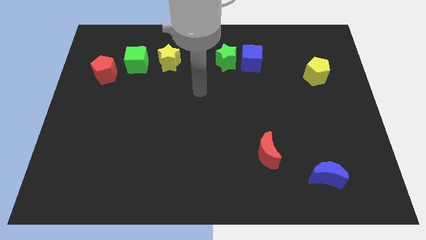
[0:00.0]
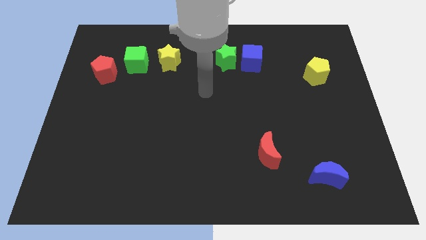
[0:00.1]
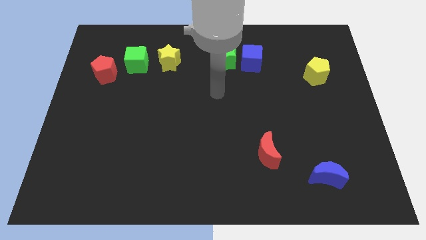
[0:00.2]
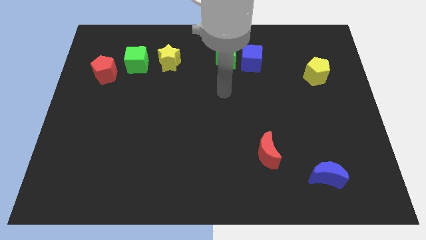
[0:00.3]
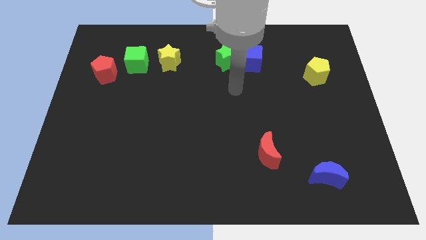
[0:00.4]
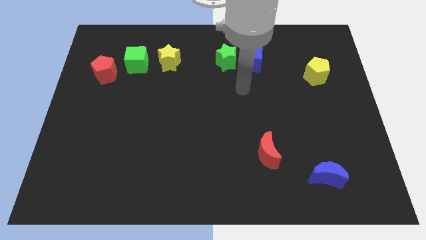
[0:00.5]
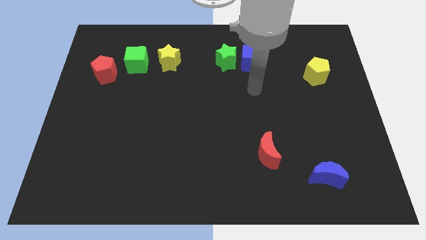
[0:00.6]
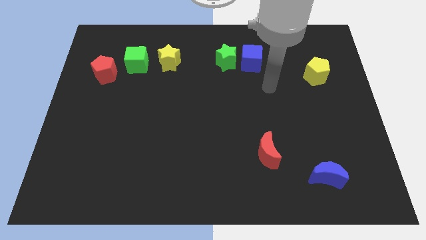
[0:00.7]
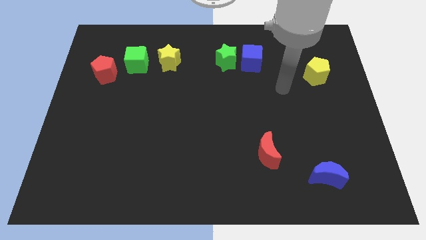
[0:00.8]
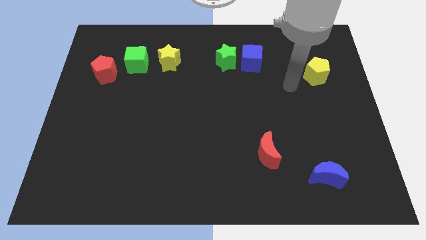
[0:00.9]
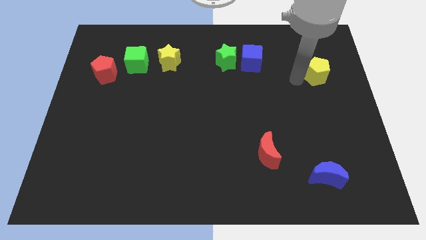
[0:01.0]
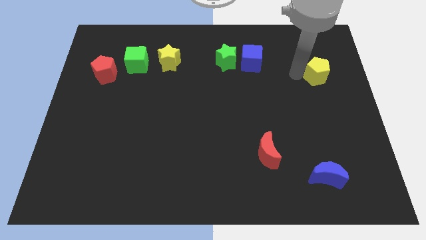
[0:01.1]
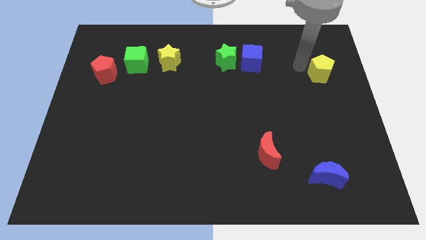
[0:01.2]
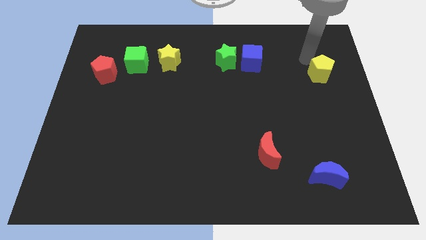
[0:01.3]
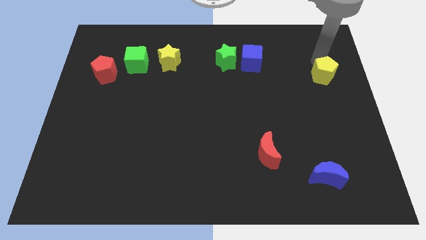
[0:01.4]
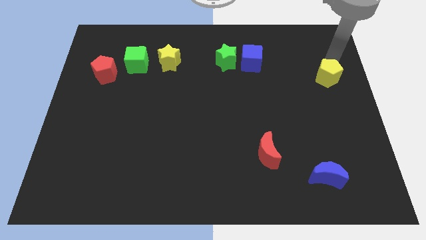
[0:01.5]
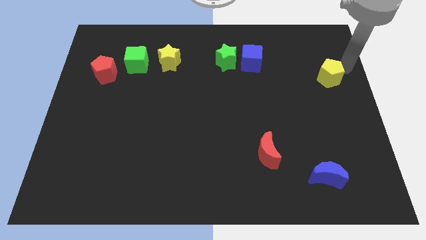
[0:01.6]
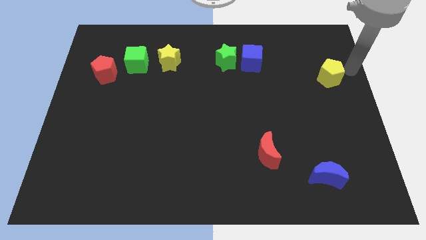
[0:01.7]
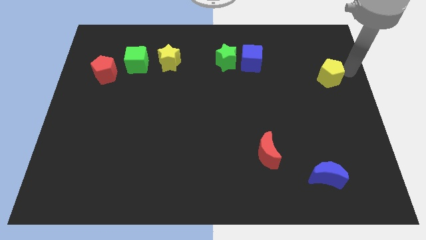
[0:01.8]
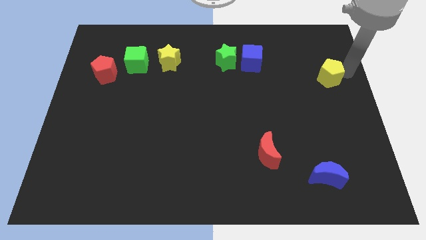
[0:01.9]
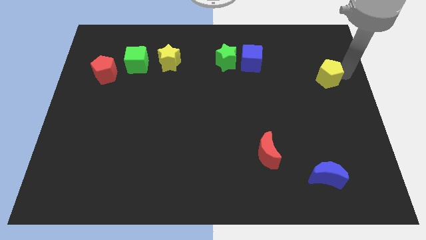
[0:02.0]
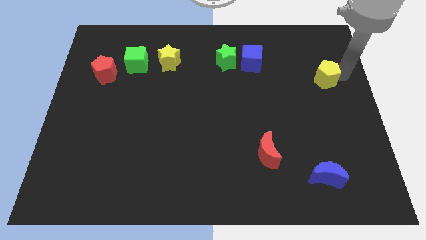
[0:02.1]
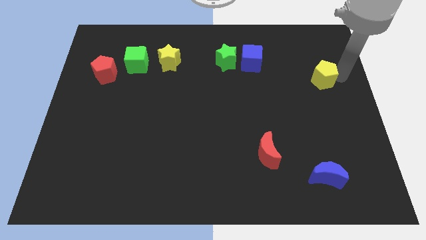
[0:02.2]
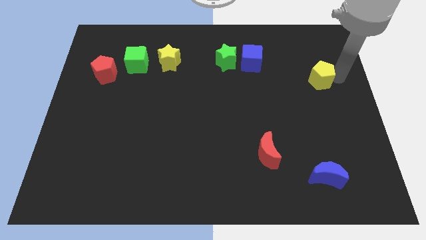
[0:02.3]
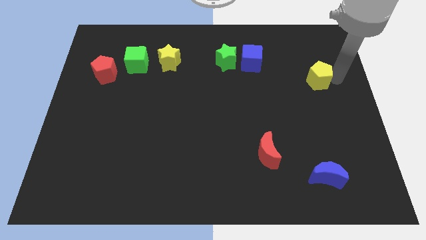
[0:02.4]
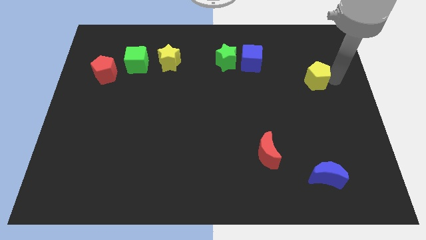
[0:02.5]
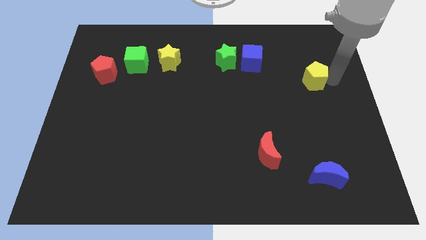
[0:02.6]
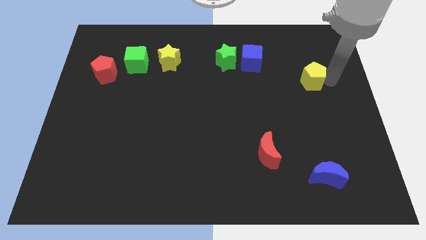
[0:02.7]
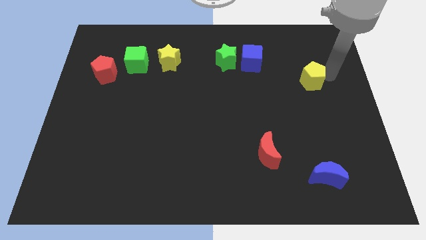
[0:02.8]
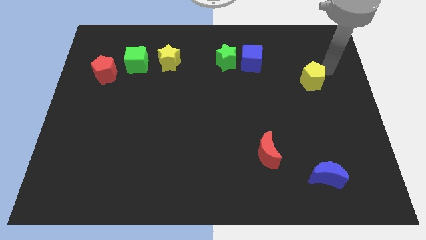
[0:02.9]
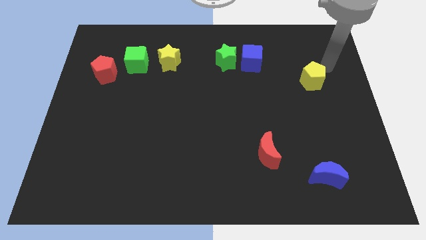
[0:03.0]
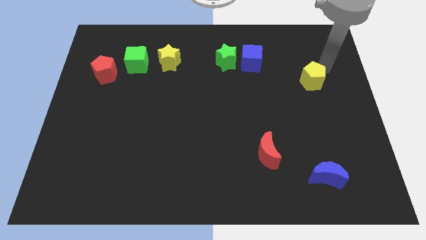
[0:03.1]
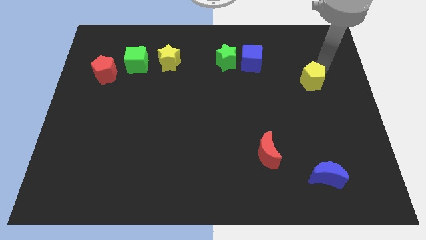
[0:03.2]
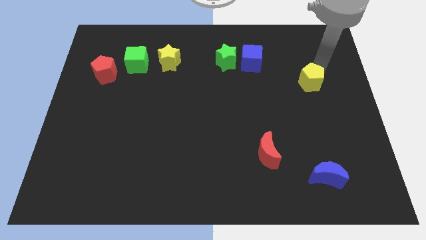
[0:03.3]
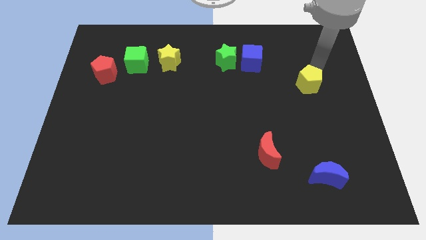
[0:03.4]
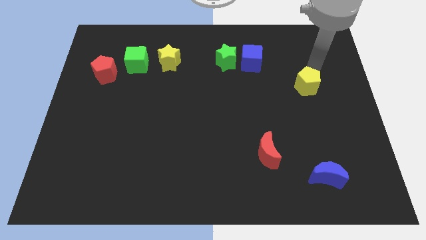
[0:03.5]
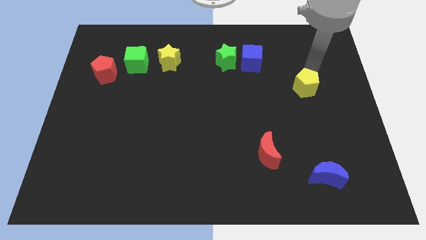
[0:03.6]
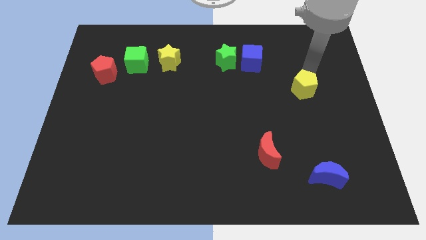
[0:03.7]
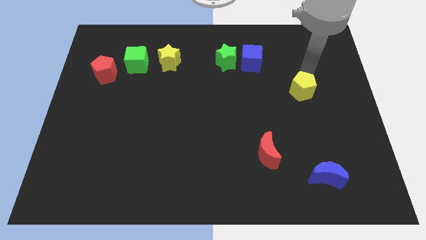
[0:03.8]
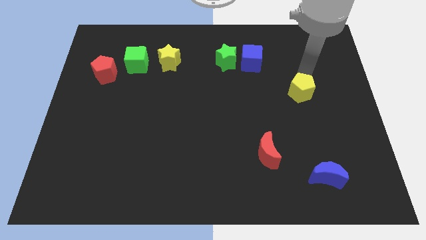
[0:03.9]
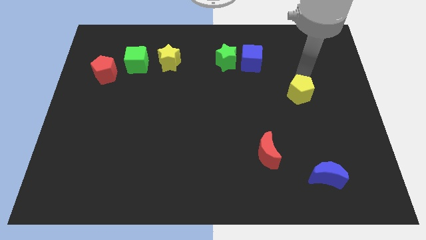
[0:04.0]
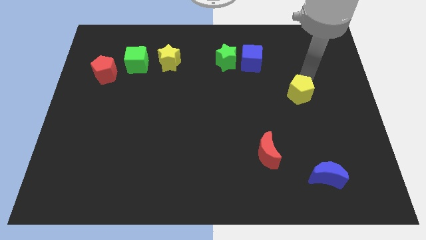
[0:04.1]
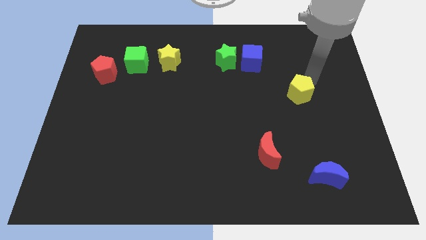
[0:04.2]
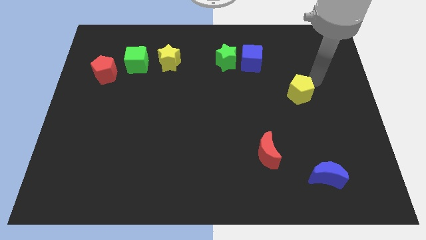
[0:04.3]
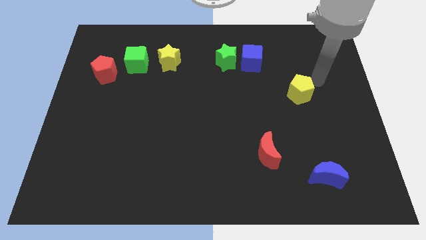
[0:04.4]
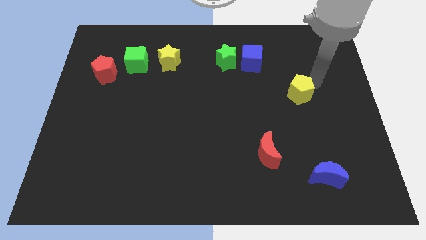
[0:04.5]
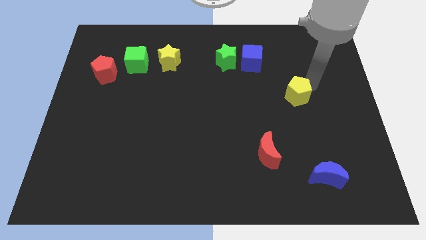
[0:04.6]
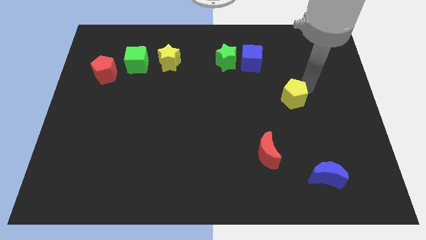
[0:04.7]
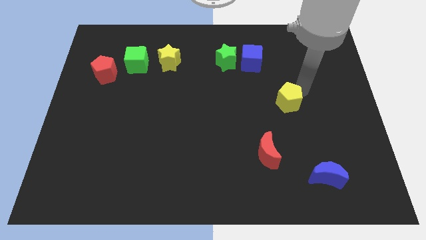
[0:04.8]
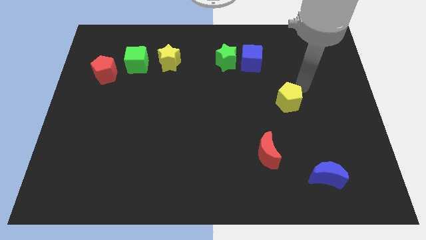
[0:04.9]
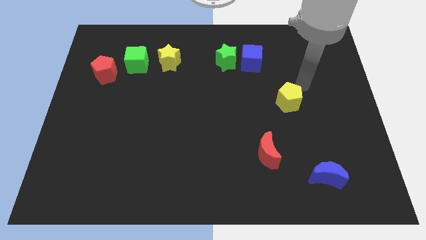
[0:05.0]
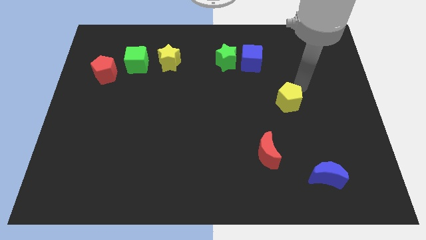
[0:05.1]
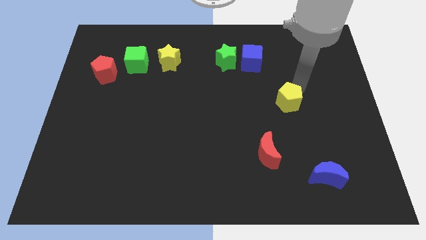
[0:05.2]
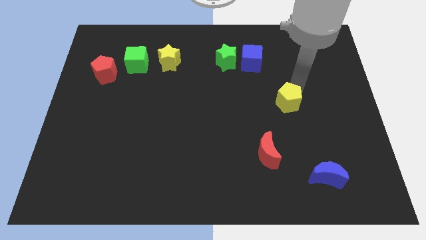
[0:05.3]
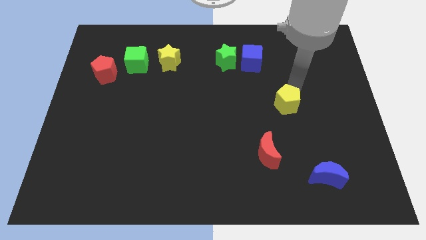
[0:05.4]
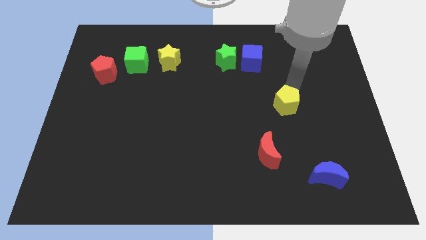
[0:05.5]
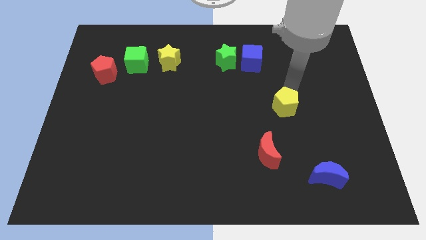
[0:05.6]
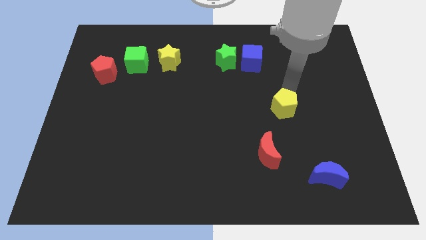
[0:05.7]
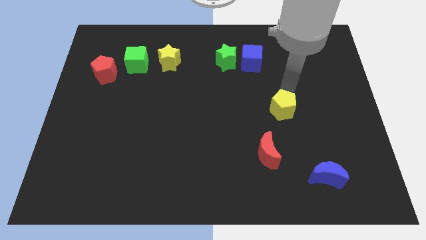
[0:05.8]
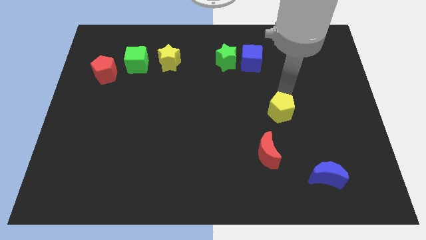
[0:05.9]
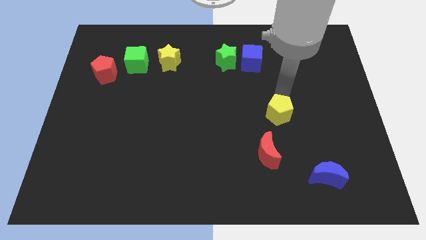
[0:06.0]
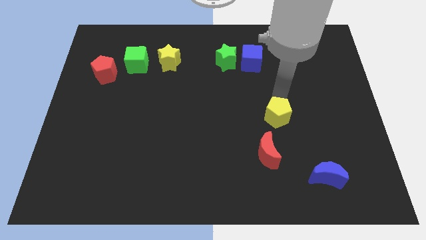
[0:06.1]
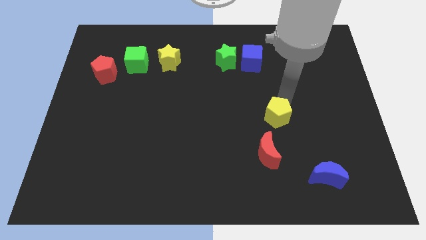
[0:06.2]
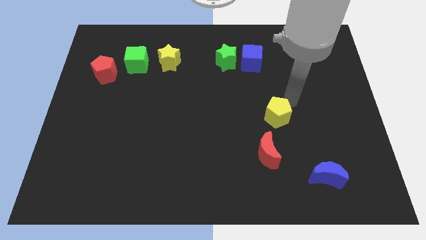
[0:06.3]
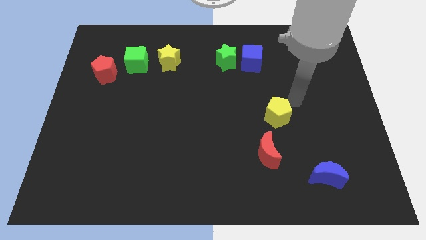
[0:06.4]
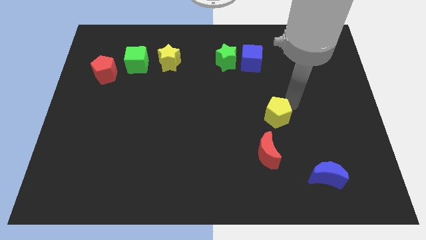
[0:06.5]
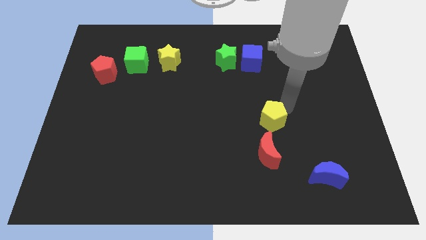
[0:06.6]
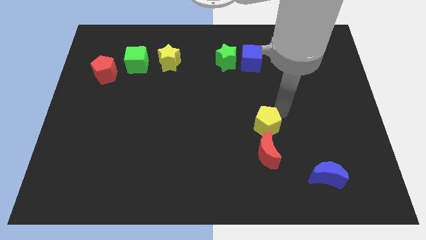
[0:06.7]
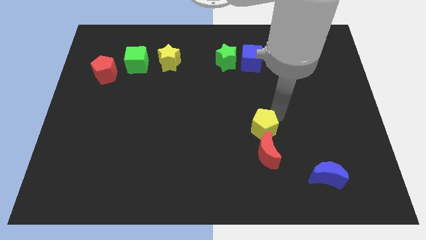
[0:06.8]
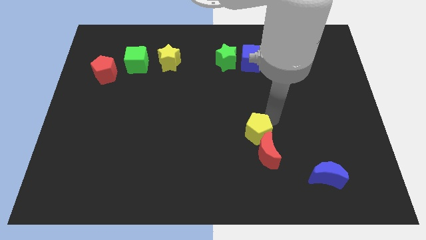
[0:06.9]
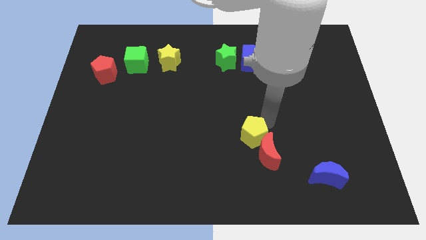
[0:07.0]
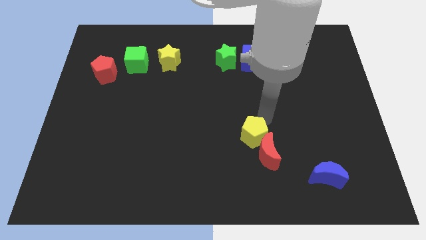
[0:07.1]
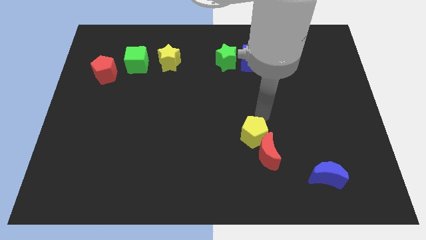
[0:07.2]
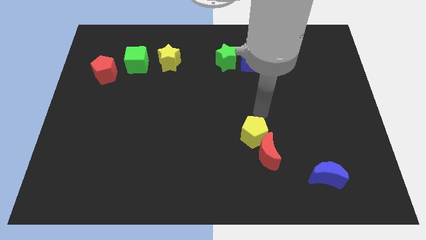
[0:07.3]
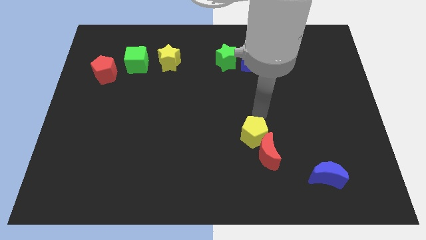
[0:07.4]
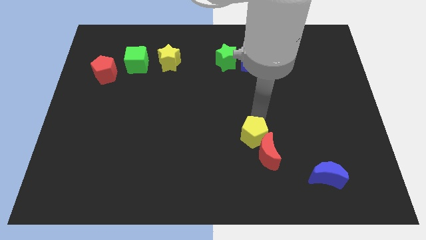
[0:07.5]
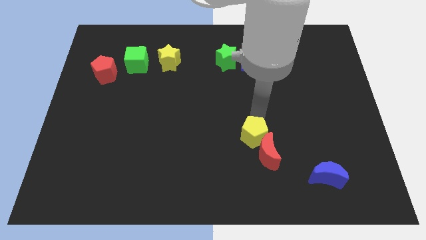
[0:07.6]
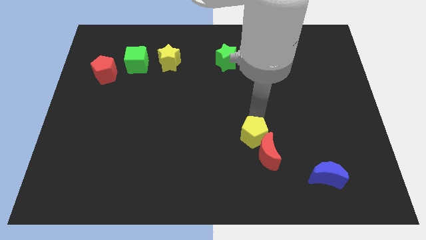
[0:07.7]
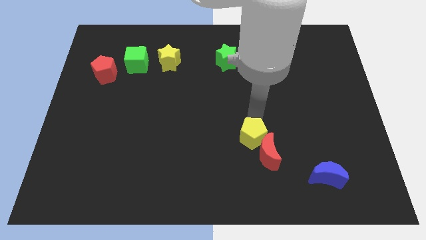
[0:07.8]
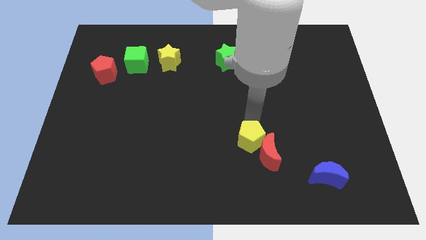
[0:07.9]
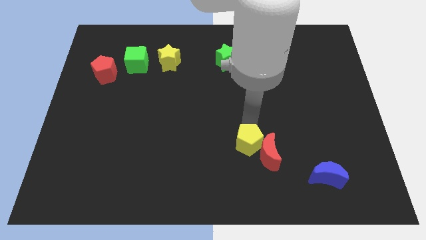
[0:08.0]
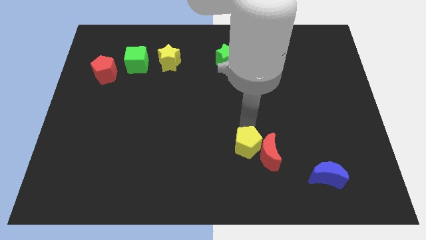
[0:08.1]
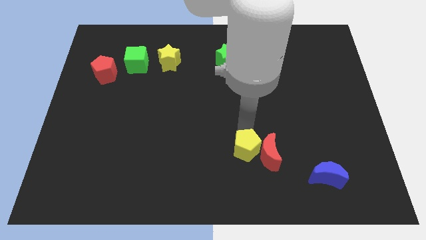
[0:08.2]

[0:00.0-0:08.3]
push the yellow pentagon to the bottom left side of the red moon
